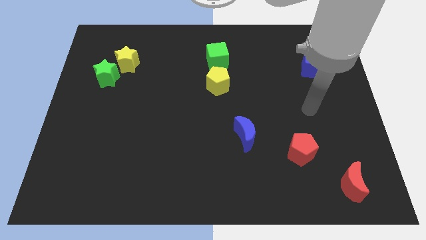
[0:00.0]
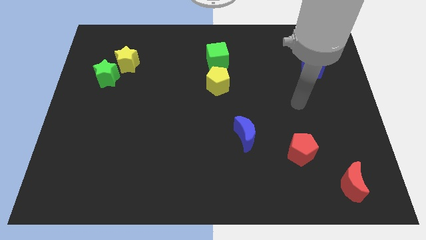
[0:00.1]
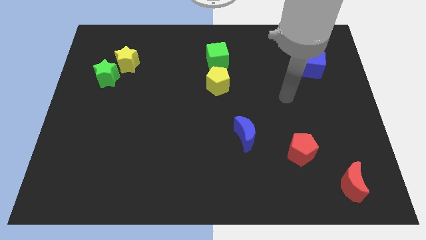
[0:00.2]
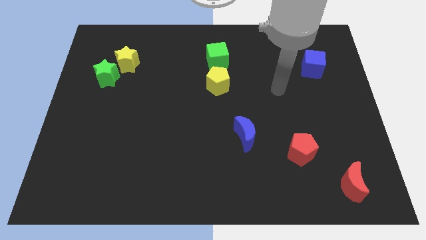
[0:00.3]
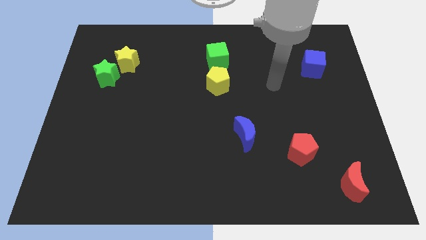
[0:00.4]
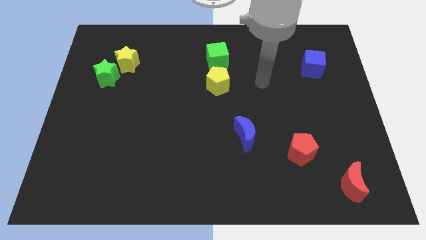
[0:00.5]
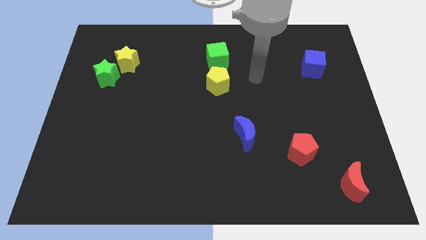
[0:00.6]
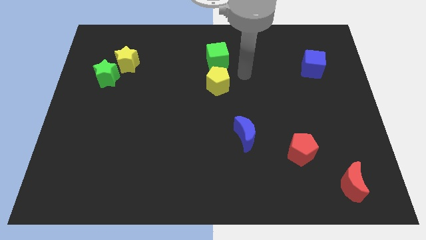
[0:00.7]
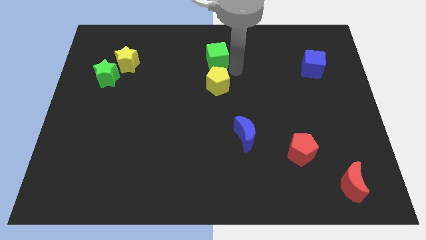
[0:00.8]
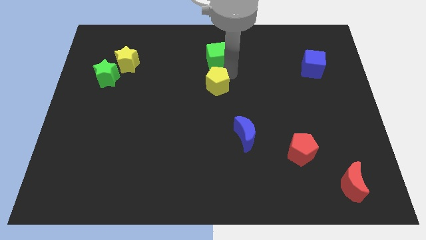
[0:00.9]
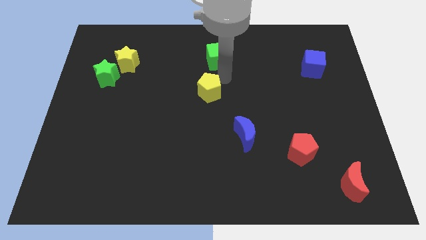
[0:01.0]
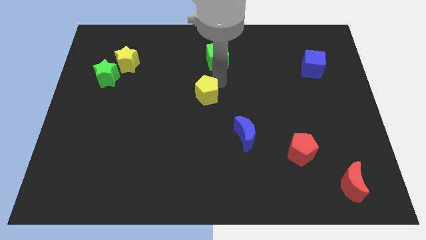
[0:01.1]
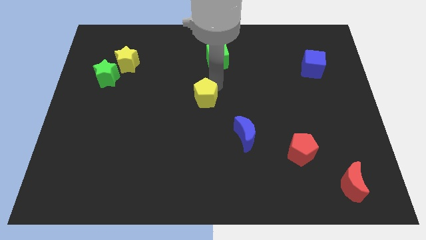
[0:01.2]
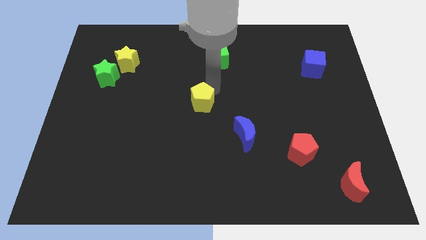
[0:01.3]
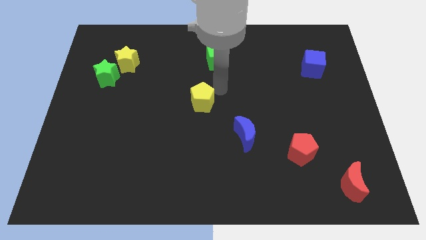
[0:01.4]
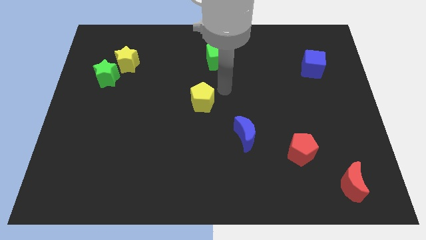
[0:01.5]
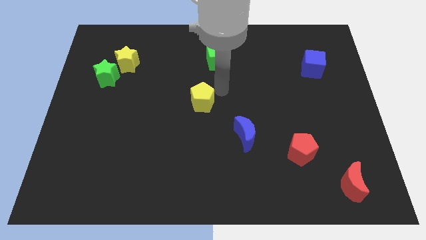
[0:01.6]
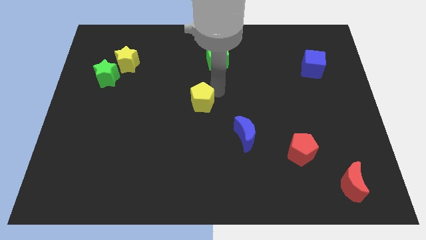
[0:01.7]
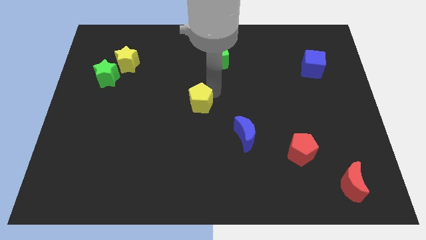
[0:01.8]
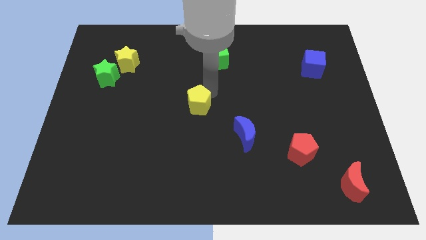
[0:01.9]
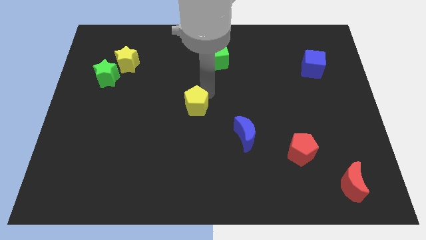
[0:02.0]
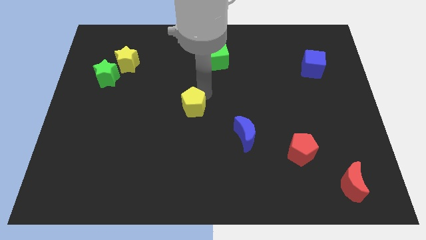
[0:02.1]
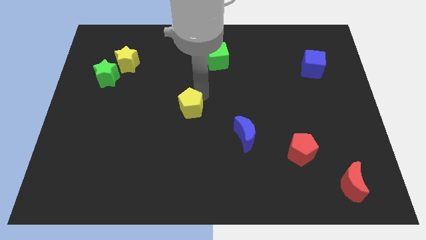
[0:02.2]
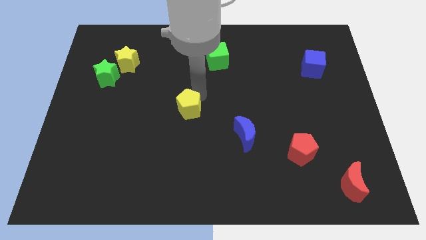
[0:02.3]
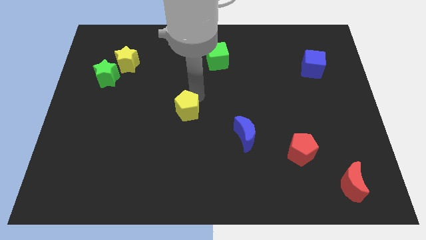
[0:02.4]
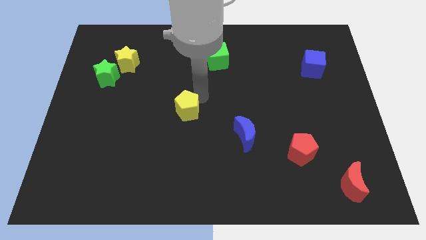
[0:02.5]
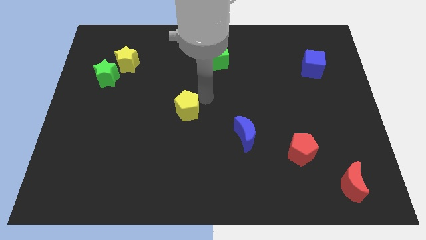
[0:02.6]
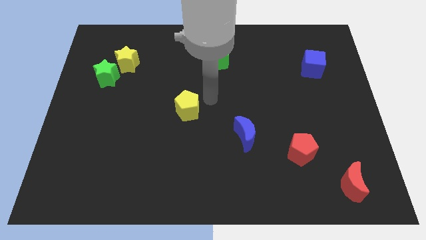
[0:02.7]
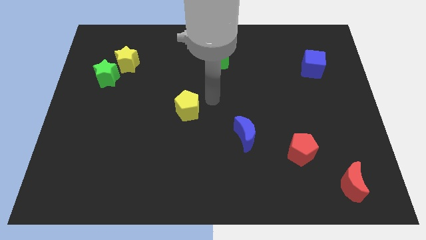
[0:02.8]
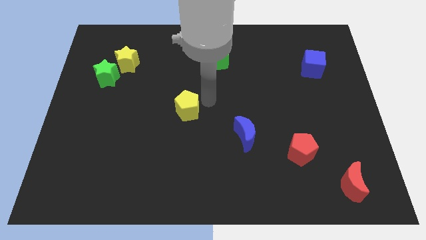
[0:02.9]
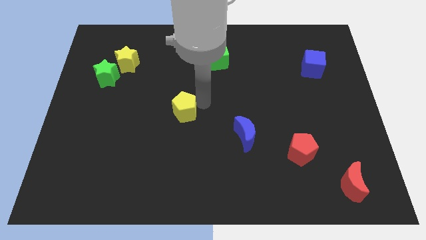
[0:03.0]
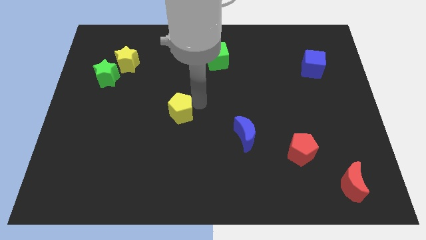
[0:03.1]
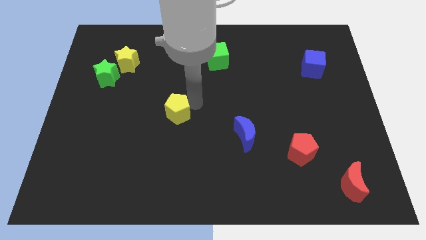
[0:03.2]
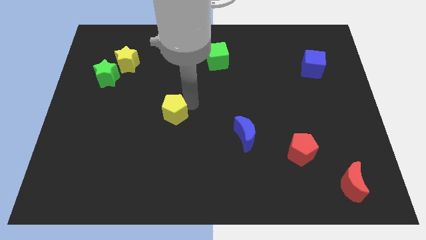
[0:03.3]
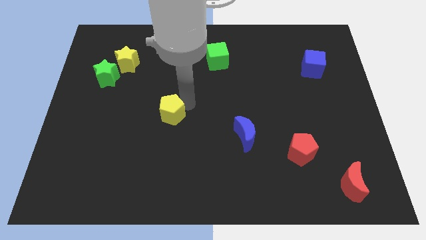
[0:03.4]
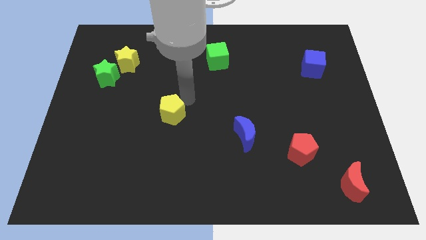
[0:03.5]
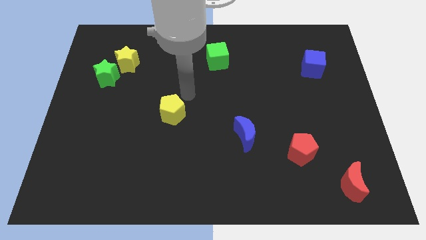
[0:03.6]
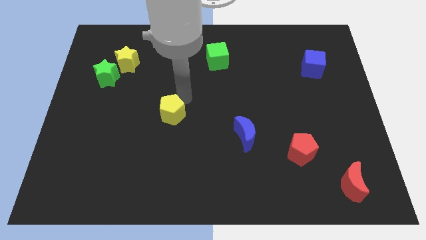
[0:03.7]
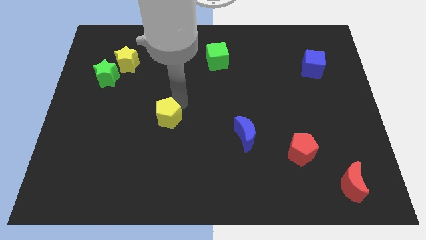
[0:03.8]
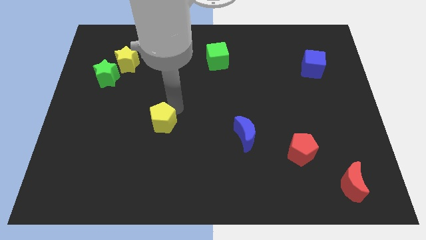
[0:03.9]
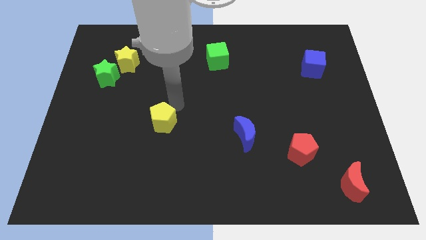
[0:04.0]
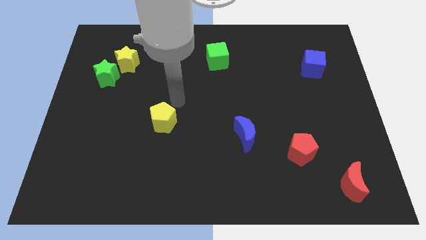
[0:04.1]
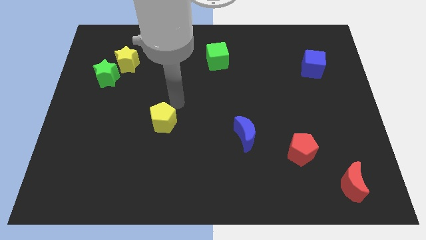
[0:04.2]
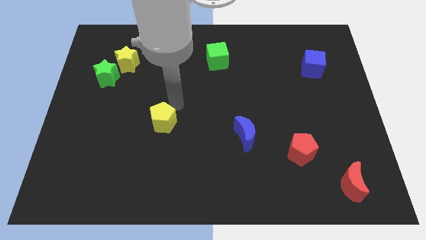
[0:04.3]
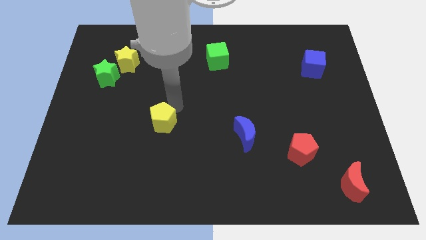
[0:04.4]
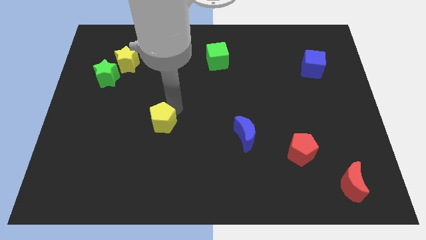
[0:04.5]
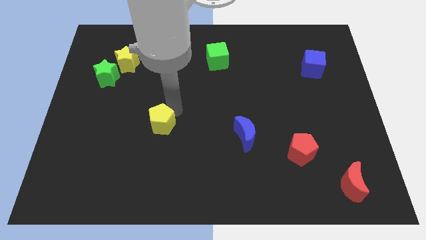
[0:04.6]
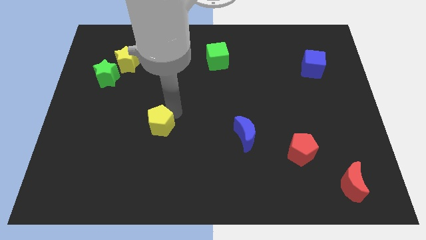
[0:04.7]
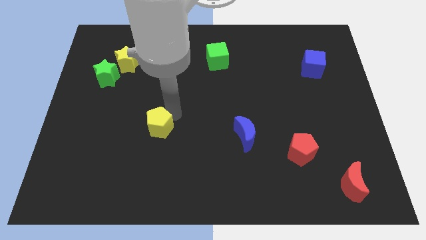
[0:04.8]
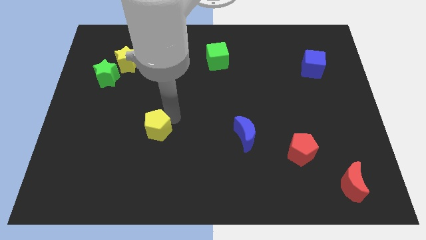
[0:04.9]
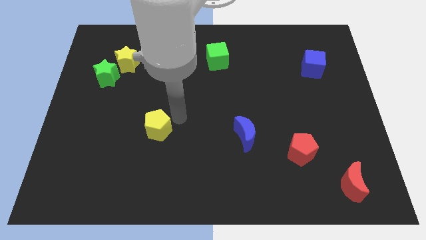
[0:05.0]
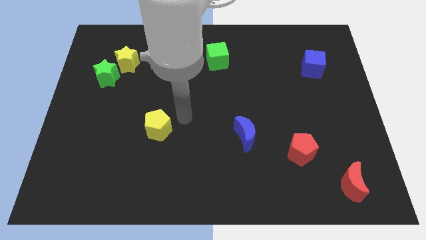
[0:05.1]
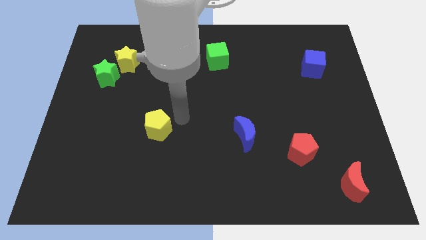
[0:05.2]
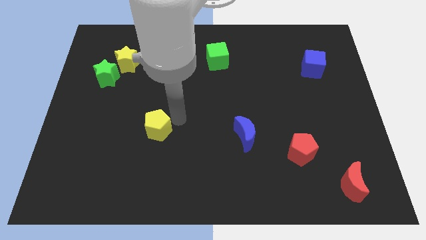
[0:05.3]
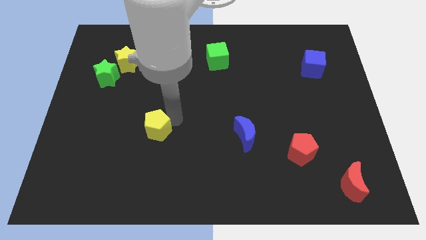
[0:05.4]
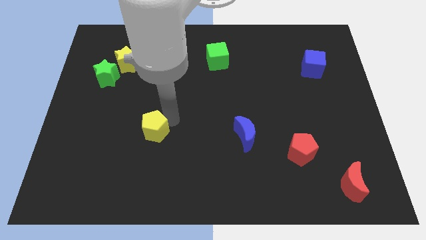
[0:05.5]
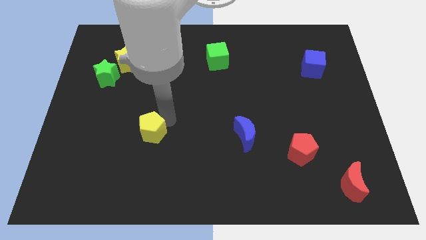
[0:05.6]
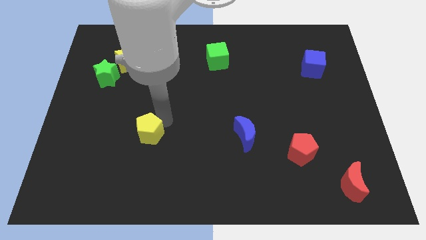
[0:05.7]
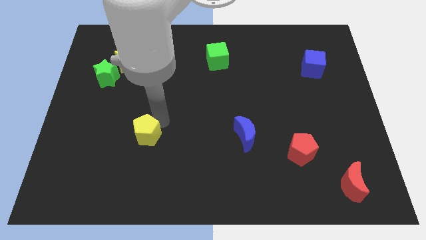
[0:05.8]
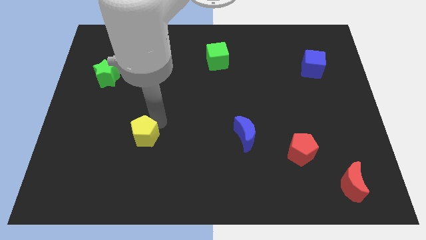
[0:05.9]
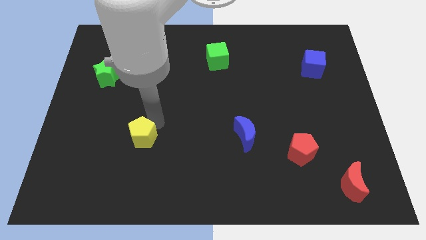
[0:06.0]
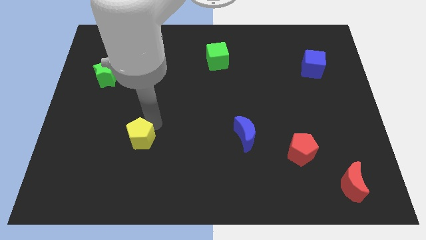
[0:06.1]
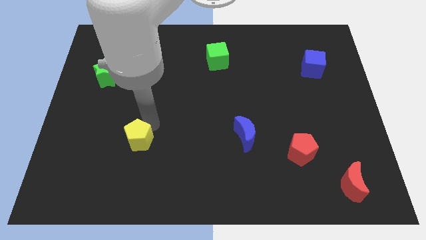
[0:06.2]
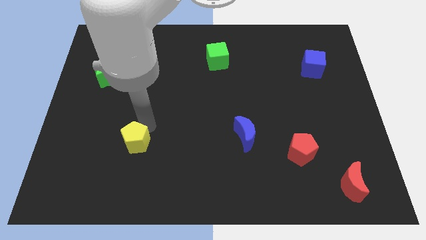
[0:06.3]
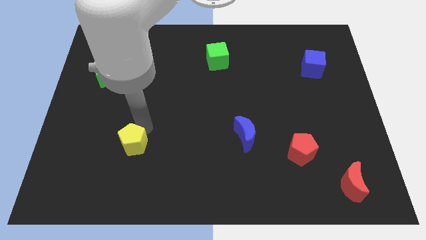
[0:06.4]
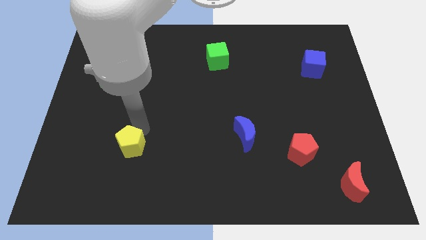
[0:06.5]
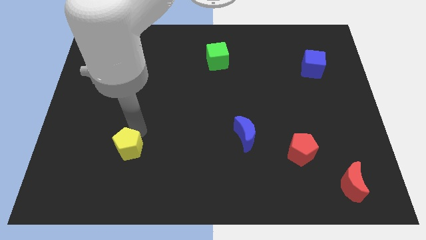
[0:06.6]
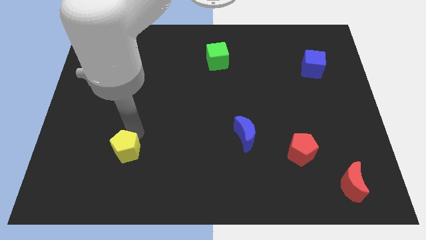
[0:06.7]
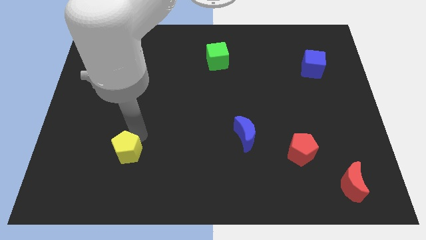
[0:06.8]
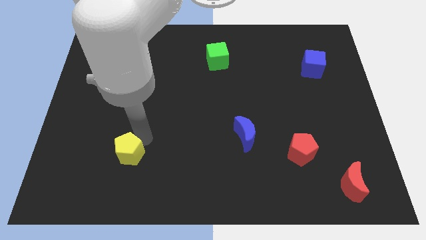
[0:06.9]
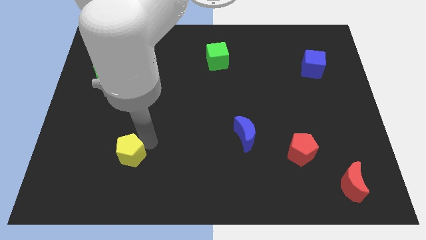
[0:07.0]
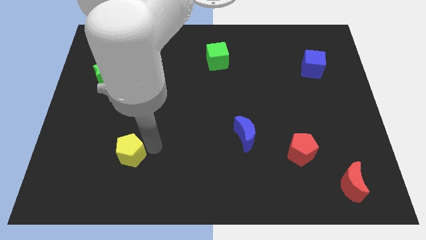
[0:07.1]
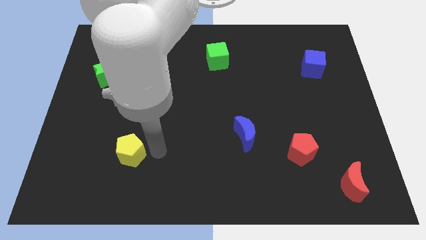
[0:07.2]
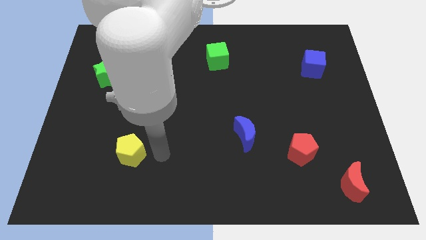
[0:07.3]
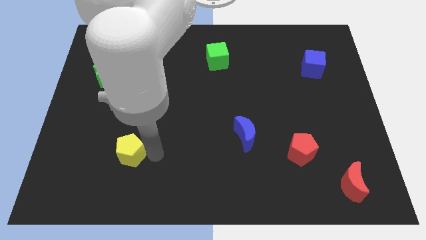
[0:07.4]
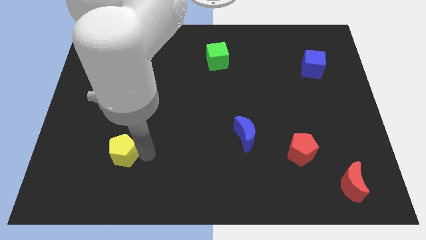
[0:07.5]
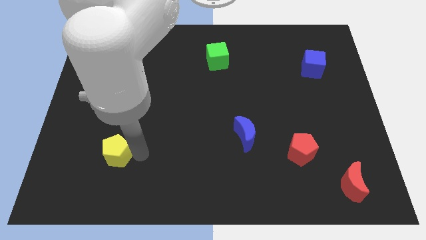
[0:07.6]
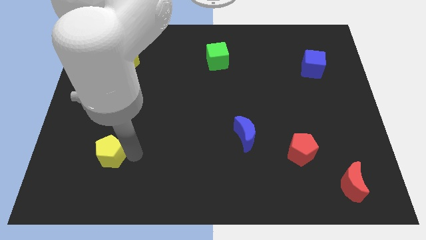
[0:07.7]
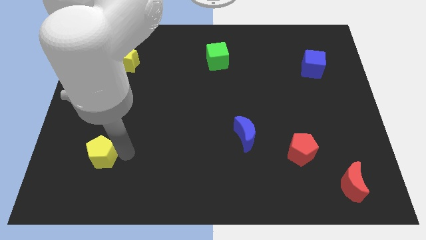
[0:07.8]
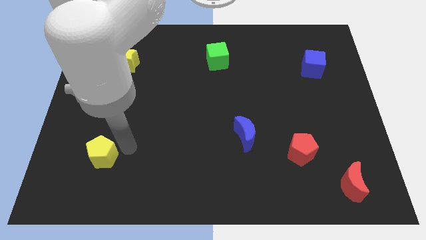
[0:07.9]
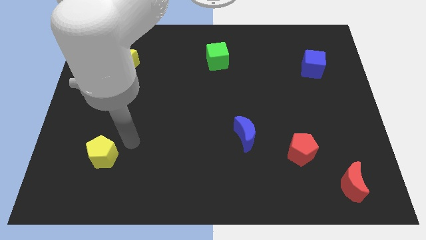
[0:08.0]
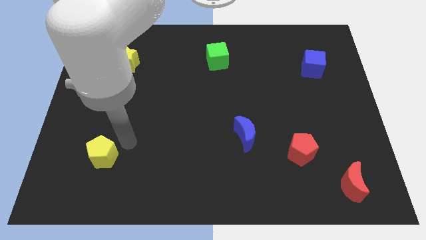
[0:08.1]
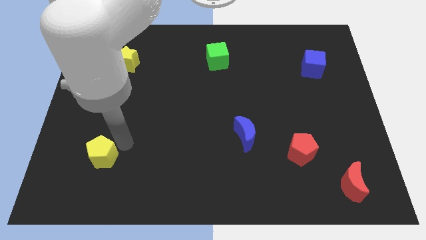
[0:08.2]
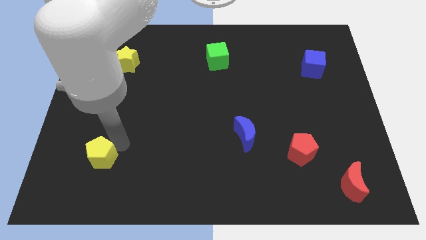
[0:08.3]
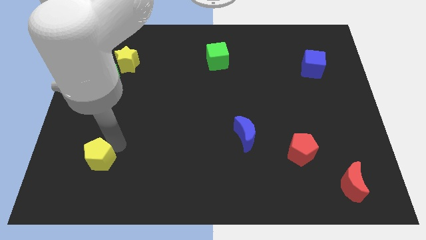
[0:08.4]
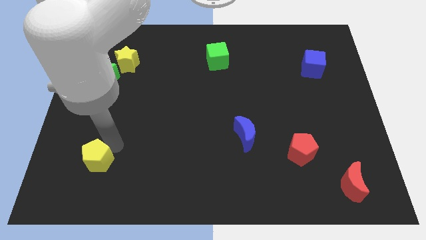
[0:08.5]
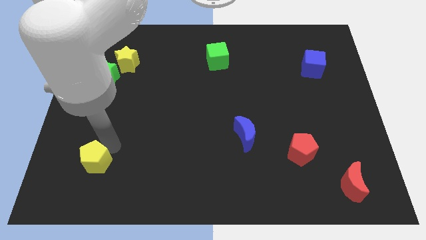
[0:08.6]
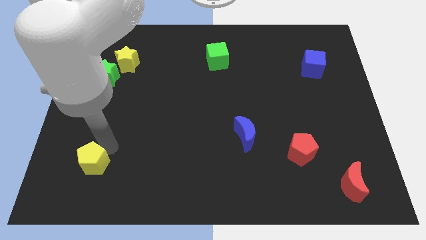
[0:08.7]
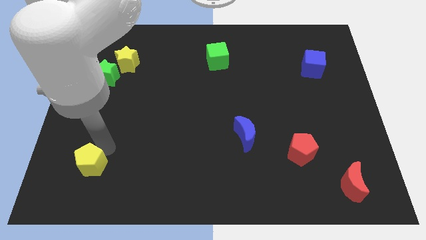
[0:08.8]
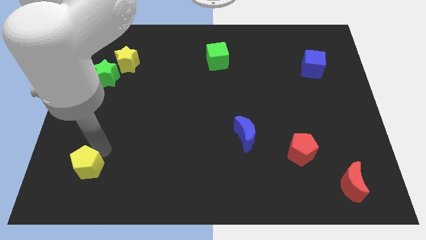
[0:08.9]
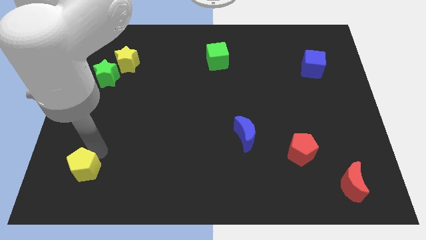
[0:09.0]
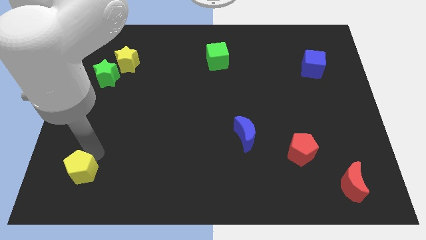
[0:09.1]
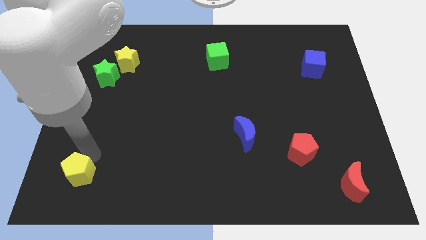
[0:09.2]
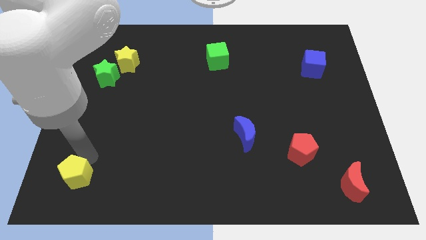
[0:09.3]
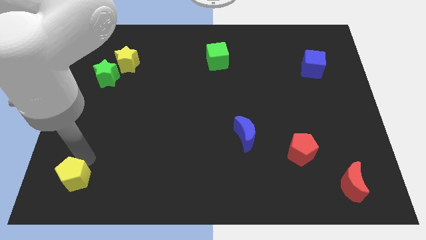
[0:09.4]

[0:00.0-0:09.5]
move the yellow pentagon to the bottom left of the board
